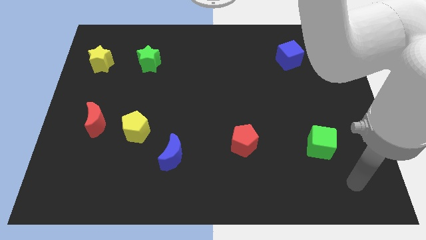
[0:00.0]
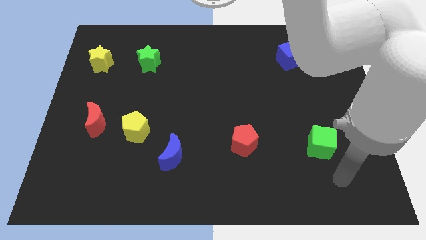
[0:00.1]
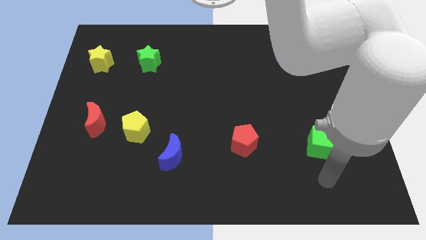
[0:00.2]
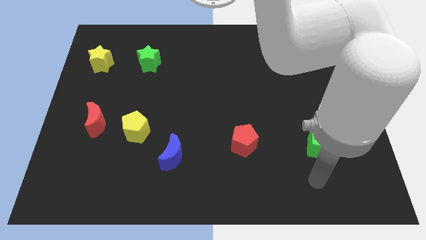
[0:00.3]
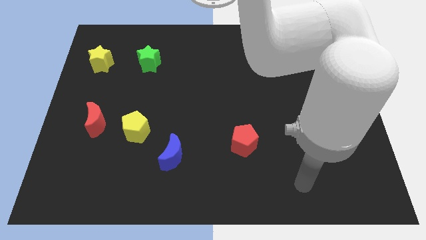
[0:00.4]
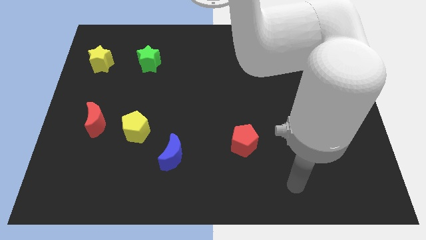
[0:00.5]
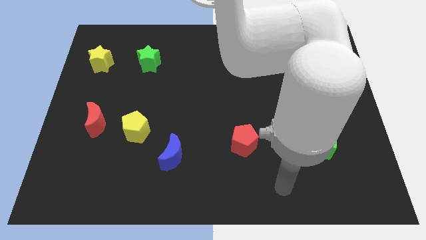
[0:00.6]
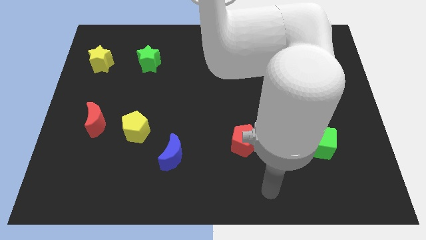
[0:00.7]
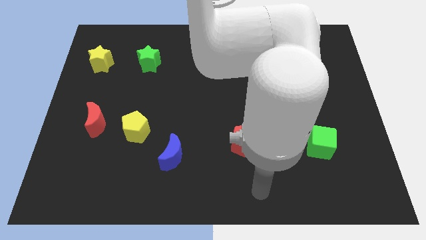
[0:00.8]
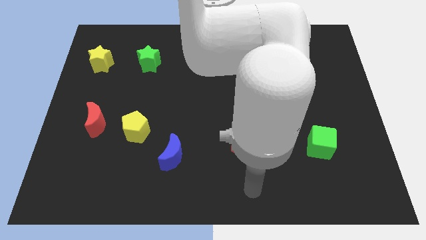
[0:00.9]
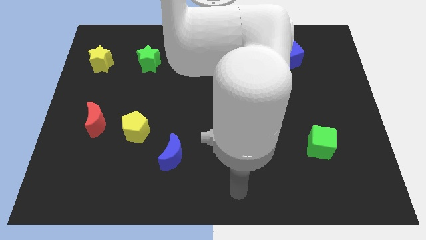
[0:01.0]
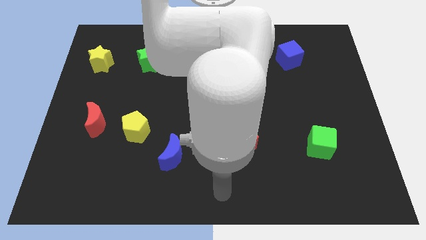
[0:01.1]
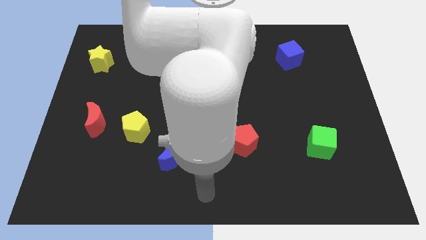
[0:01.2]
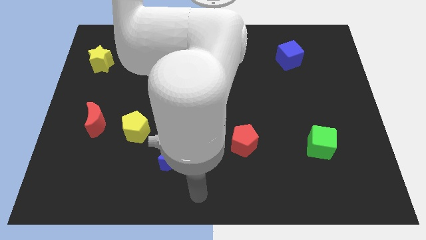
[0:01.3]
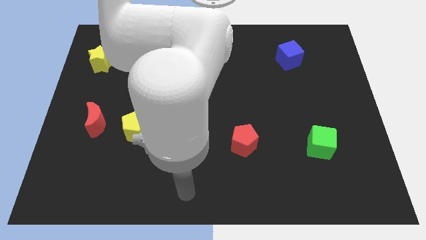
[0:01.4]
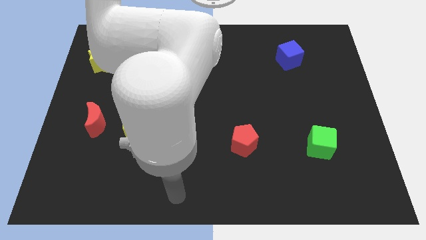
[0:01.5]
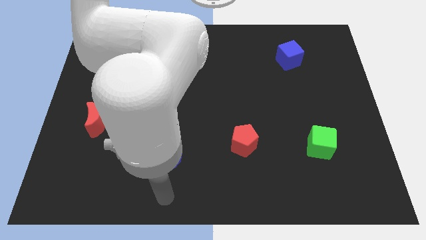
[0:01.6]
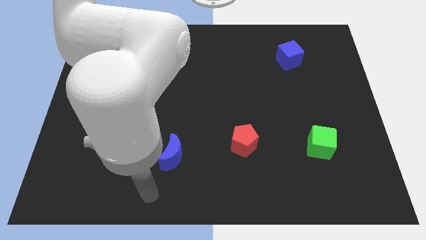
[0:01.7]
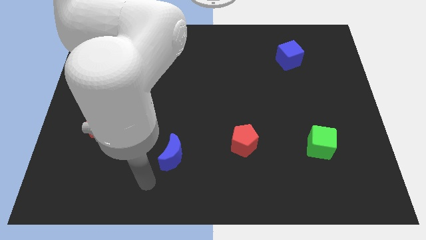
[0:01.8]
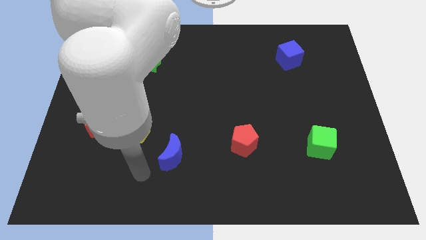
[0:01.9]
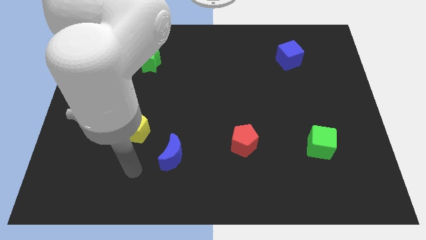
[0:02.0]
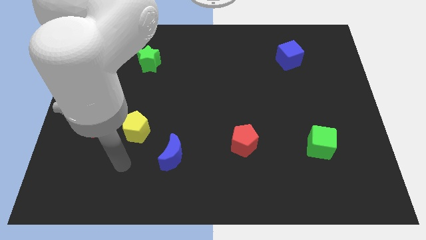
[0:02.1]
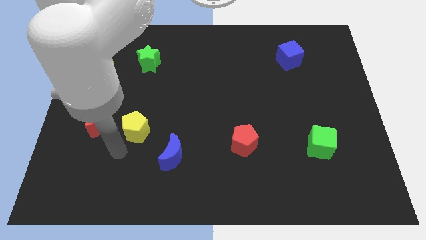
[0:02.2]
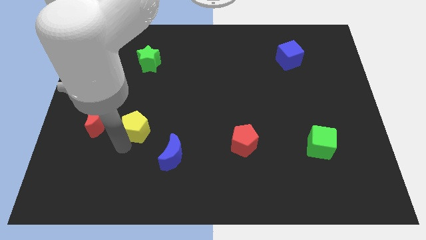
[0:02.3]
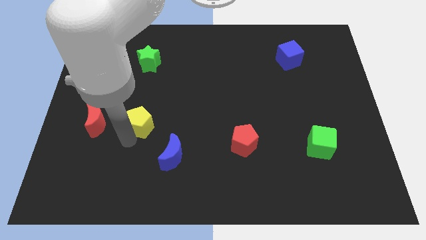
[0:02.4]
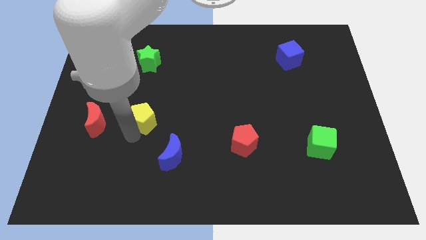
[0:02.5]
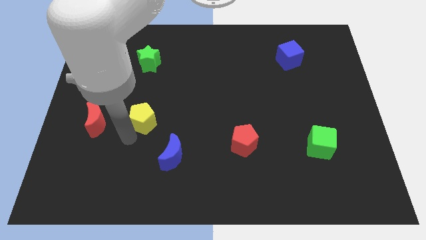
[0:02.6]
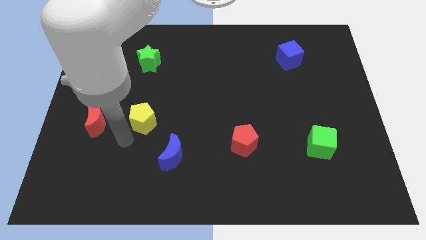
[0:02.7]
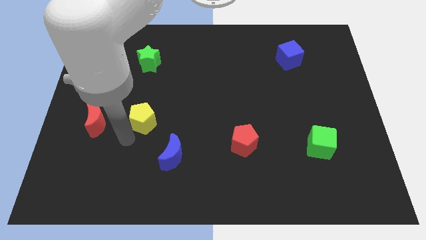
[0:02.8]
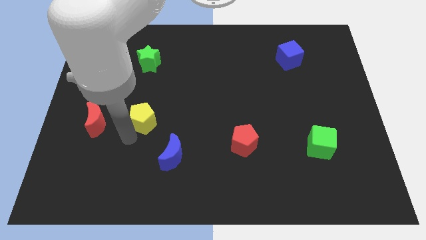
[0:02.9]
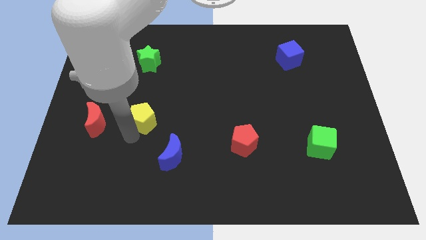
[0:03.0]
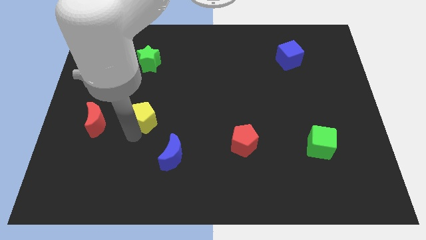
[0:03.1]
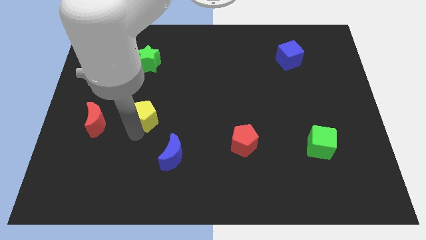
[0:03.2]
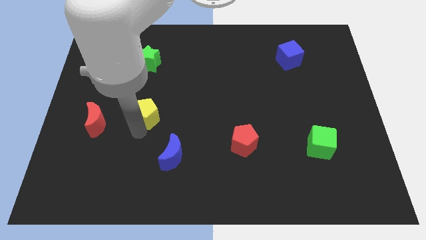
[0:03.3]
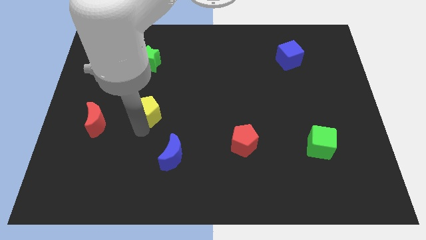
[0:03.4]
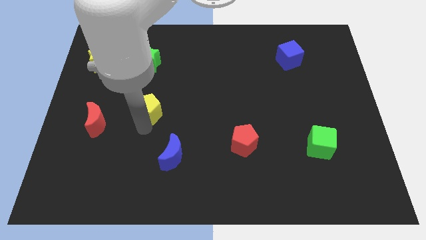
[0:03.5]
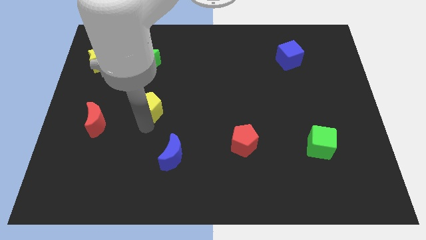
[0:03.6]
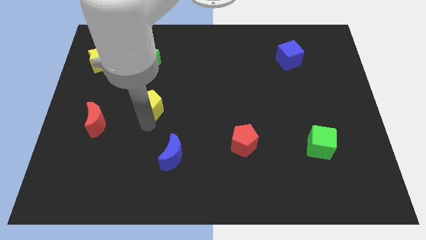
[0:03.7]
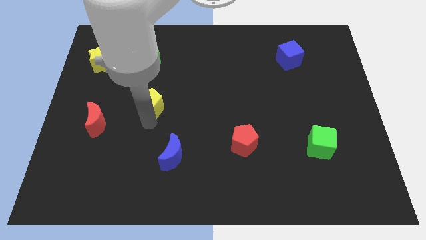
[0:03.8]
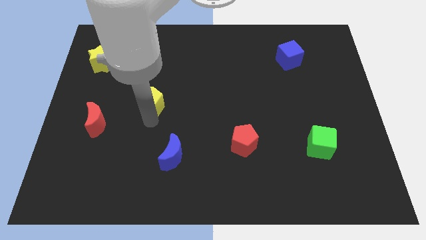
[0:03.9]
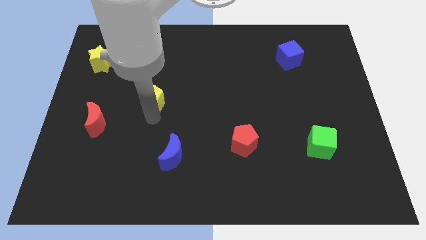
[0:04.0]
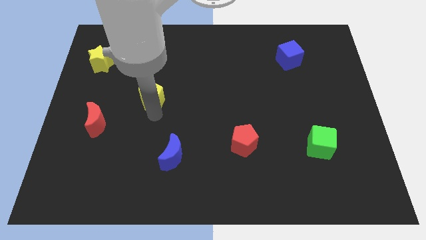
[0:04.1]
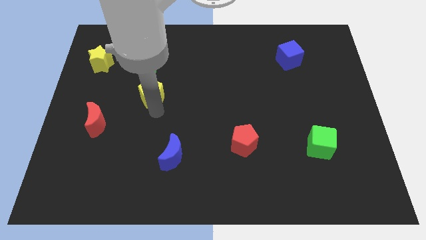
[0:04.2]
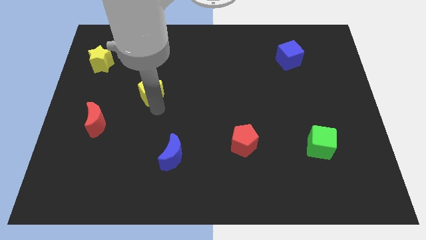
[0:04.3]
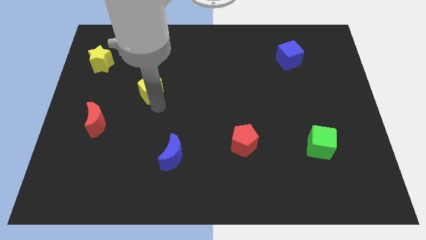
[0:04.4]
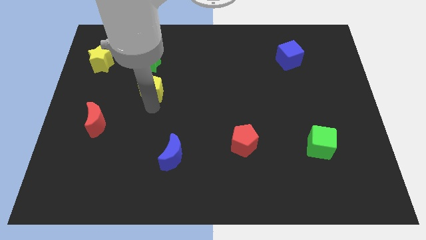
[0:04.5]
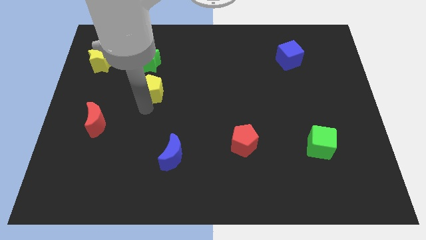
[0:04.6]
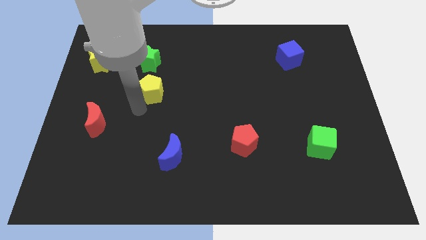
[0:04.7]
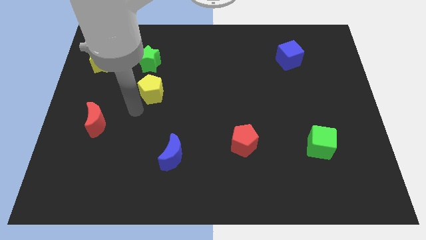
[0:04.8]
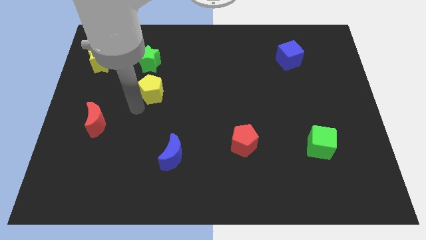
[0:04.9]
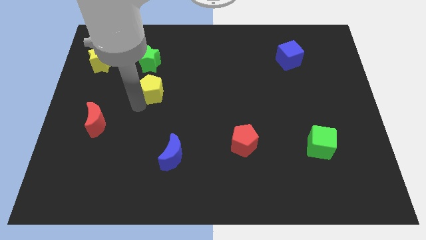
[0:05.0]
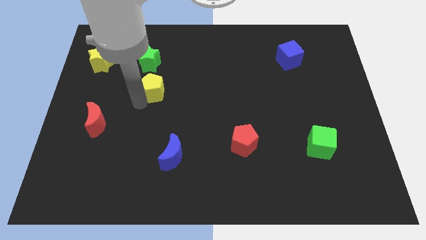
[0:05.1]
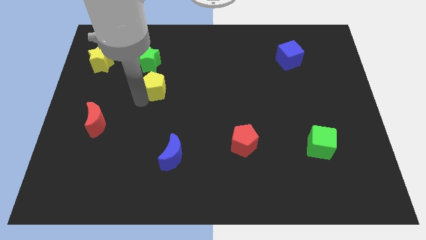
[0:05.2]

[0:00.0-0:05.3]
slide the yellow pentagon to the bottom right side of the green star

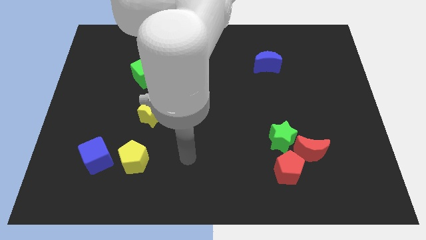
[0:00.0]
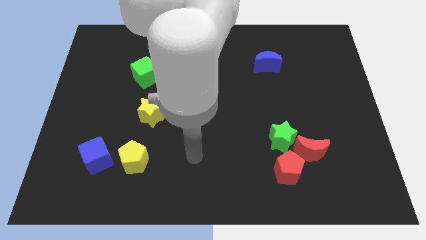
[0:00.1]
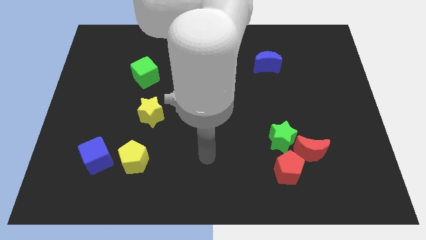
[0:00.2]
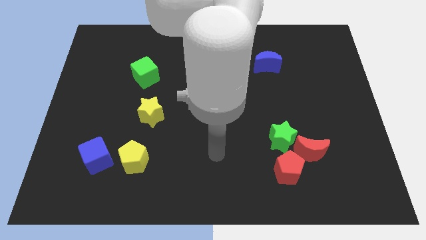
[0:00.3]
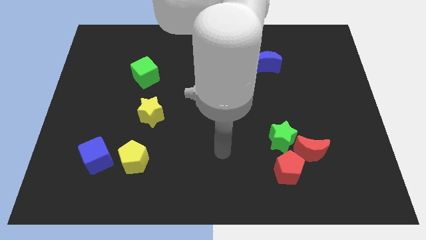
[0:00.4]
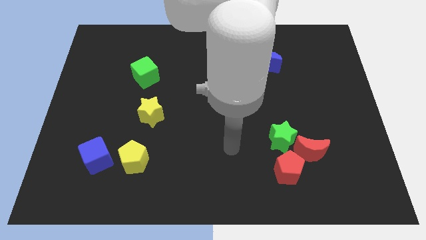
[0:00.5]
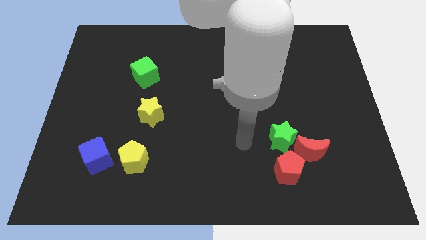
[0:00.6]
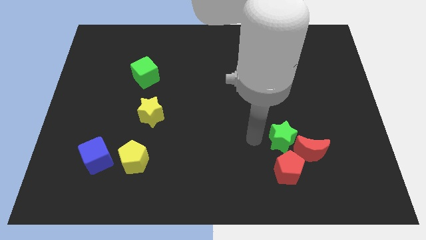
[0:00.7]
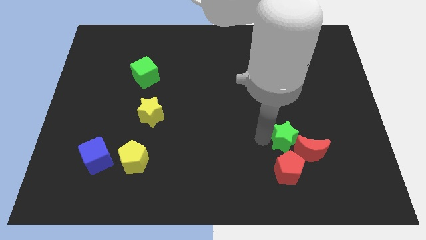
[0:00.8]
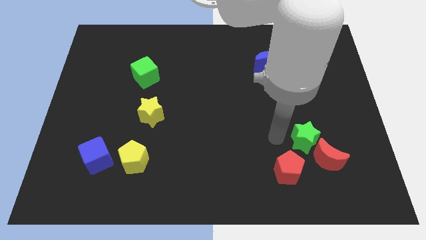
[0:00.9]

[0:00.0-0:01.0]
put the red moon below the green star

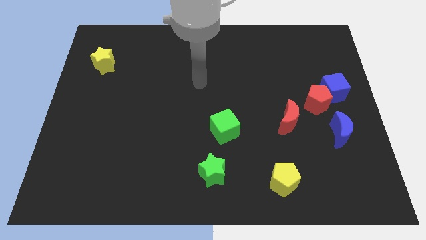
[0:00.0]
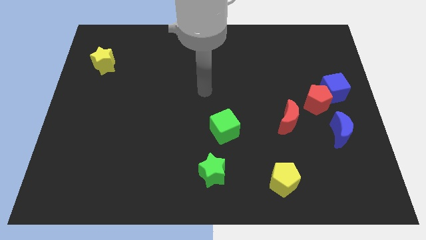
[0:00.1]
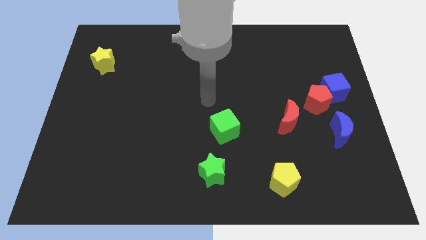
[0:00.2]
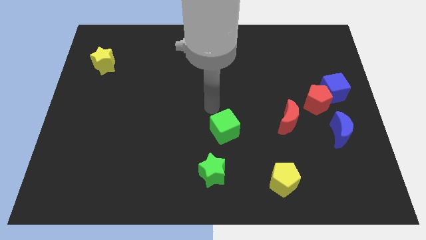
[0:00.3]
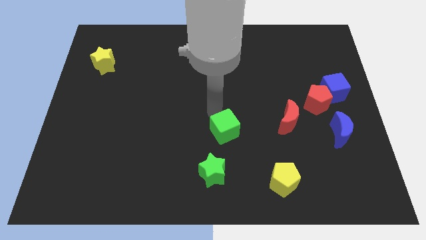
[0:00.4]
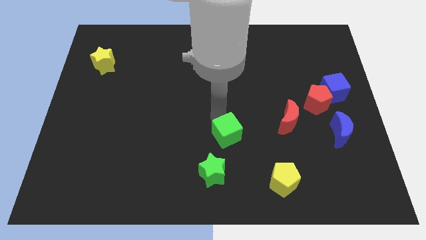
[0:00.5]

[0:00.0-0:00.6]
push the green cube to the top right side of the green star

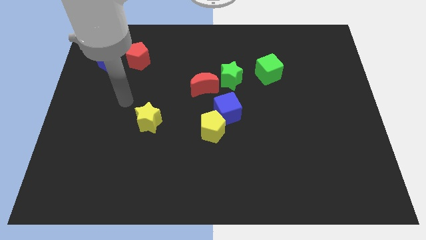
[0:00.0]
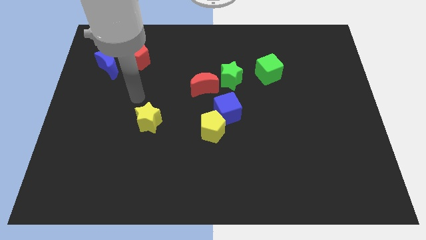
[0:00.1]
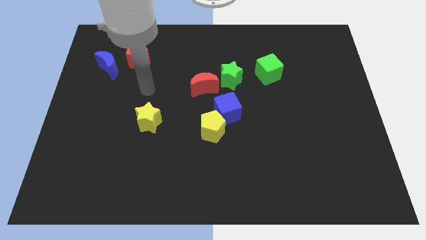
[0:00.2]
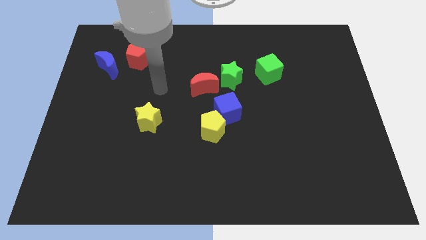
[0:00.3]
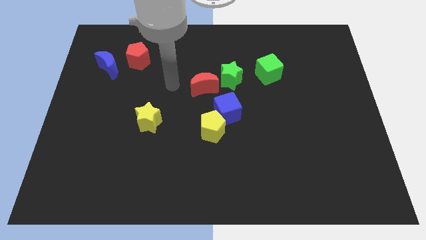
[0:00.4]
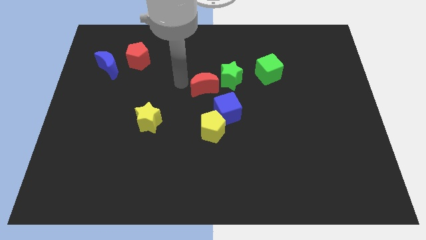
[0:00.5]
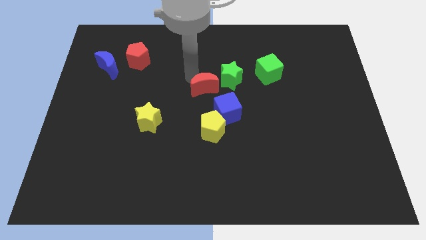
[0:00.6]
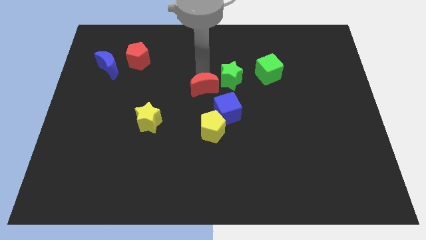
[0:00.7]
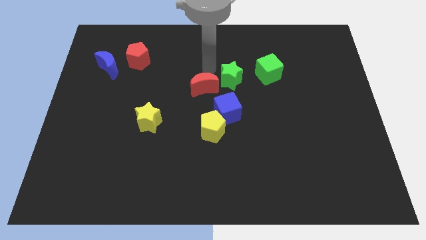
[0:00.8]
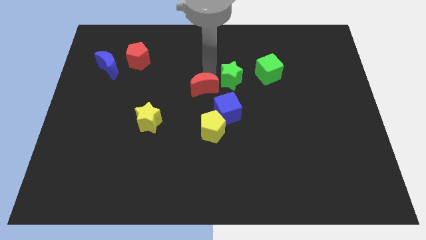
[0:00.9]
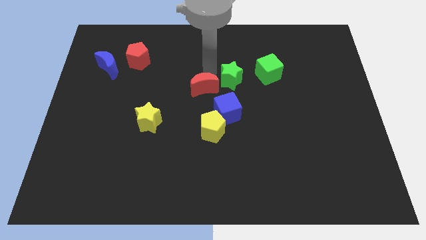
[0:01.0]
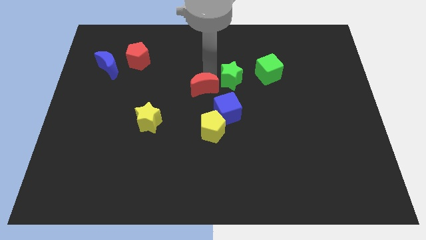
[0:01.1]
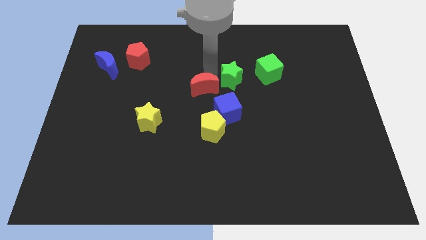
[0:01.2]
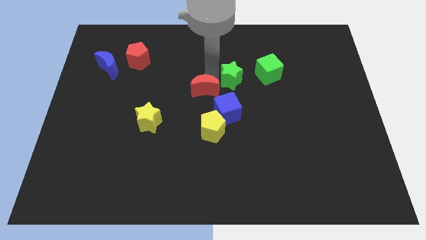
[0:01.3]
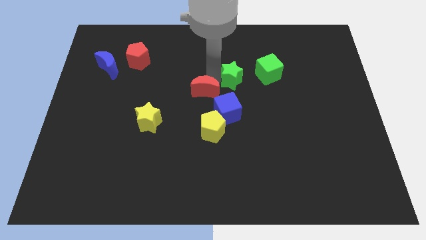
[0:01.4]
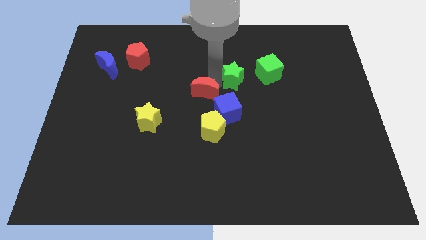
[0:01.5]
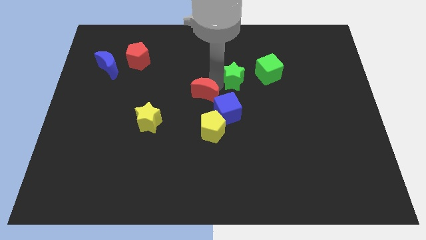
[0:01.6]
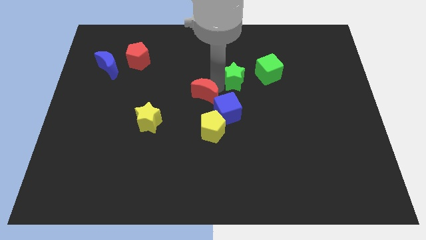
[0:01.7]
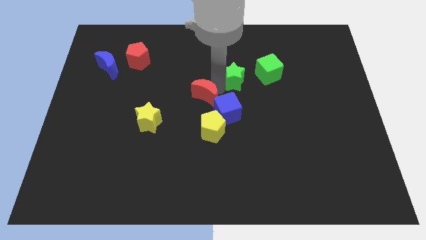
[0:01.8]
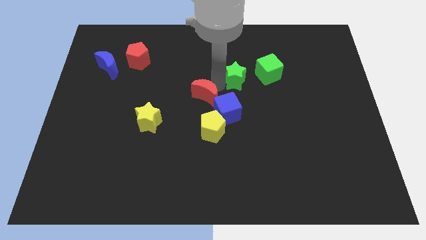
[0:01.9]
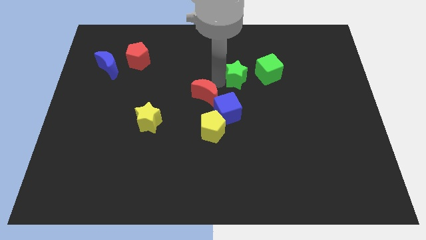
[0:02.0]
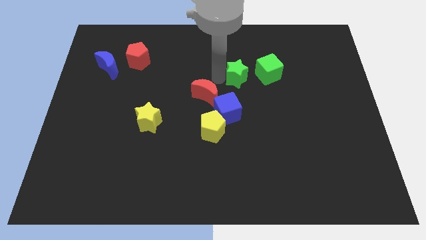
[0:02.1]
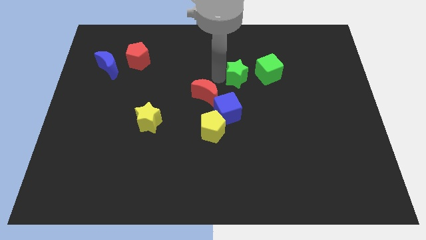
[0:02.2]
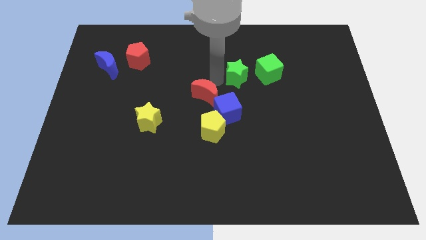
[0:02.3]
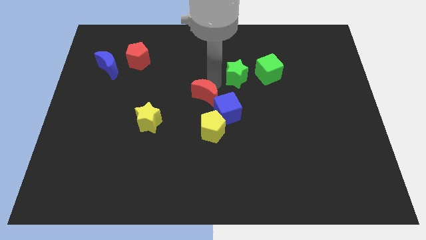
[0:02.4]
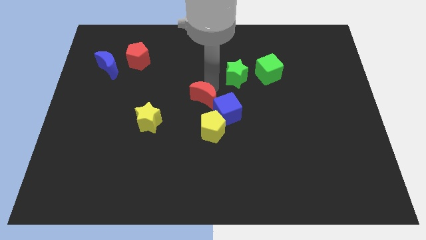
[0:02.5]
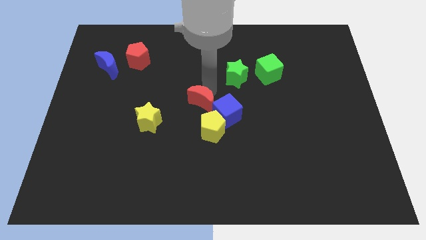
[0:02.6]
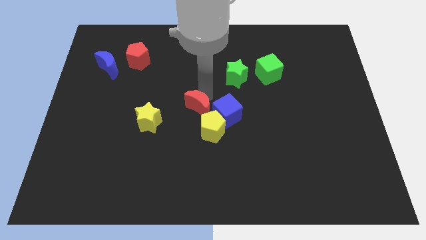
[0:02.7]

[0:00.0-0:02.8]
move the red moon to the right of the yellow star
